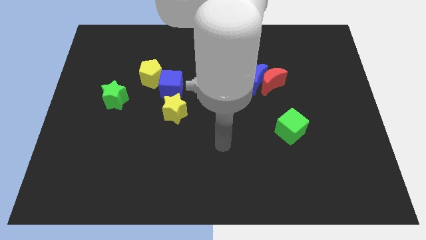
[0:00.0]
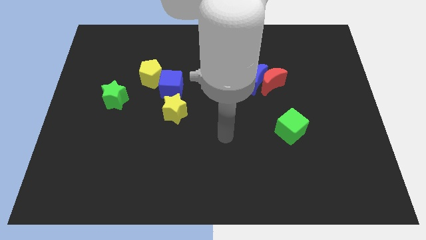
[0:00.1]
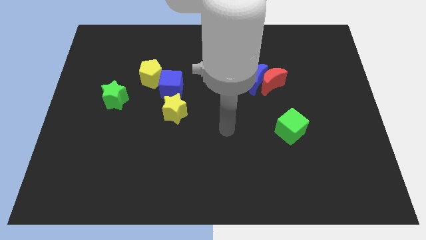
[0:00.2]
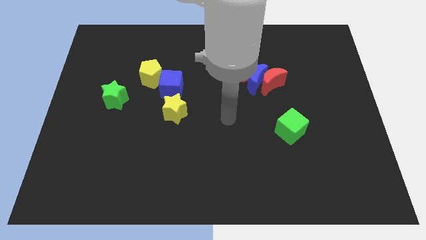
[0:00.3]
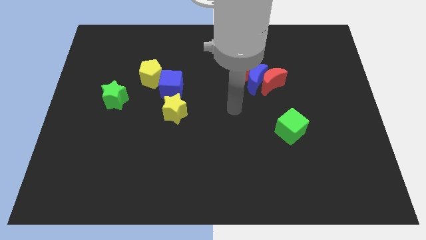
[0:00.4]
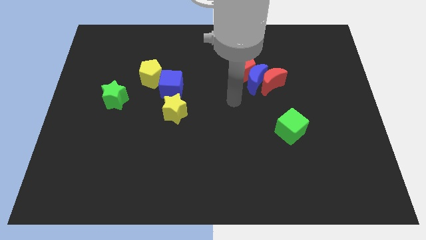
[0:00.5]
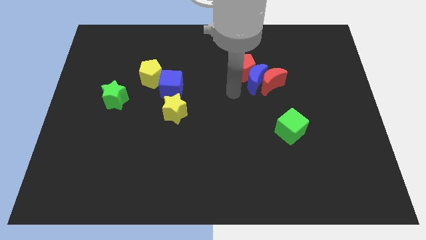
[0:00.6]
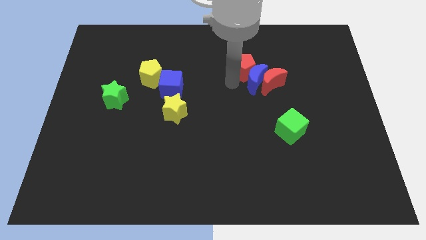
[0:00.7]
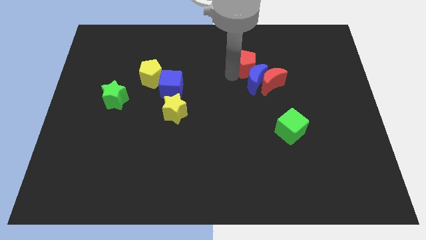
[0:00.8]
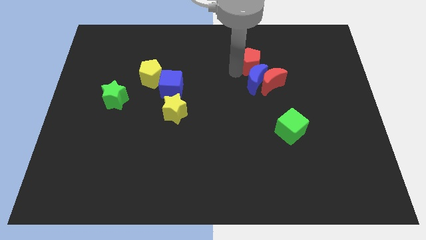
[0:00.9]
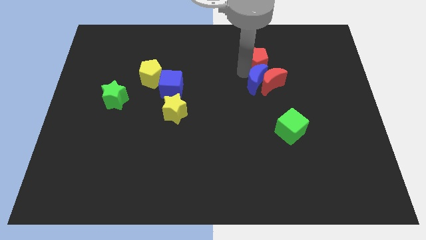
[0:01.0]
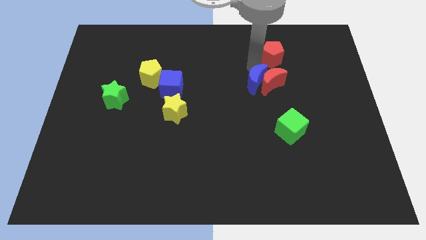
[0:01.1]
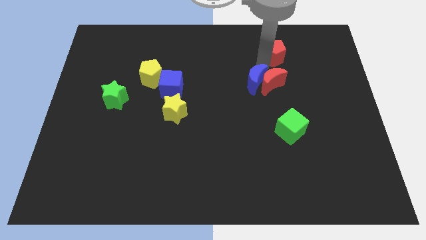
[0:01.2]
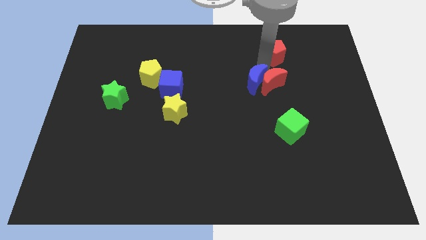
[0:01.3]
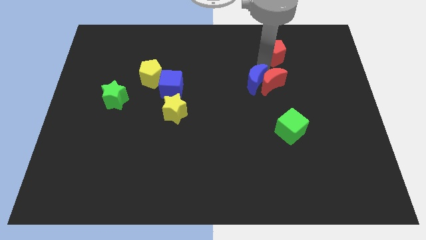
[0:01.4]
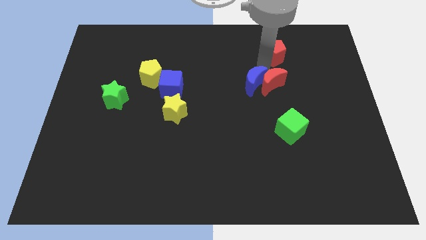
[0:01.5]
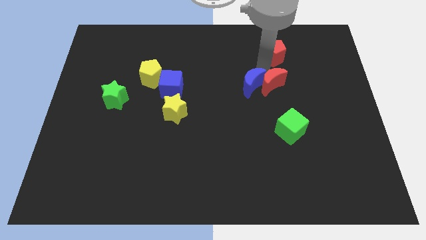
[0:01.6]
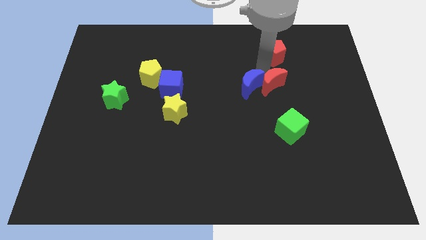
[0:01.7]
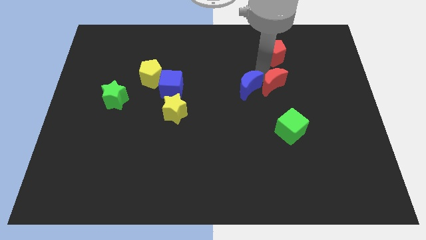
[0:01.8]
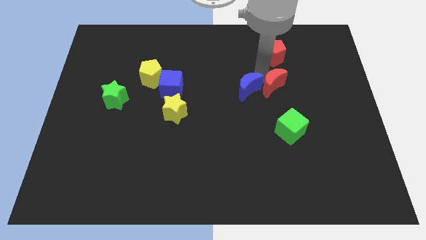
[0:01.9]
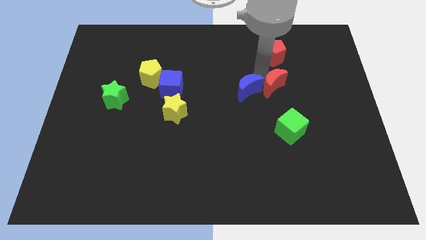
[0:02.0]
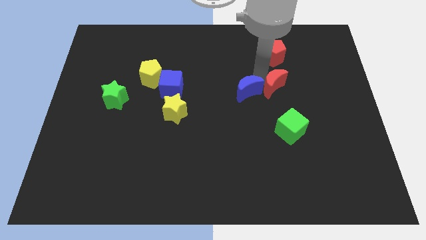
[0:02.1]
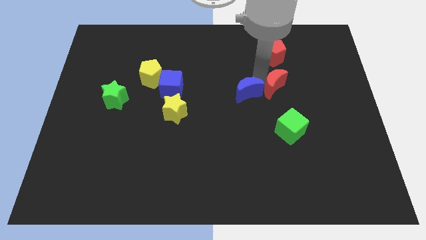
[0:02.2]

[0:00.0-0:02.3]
pull the blue moon apart from the red moon and red pentagon

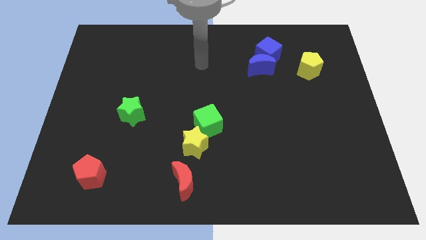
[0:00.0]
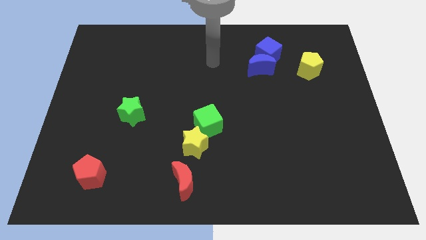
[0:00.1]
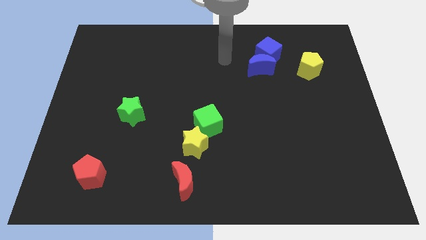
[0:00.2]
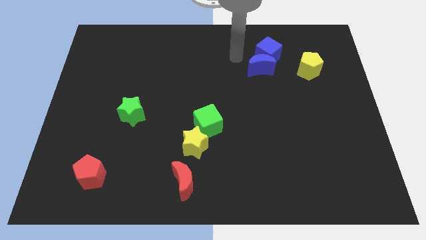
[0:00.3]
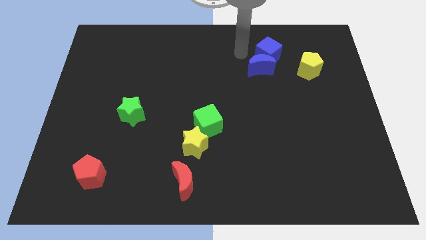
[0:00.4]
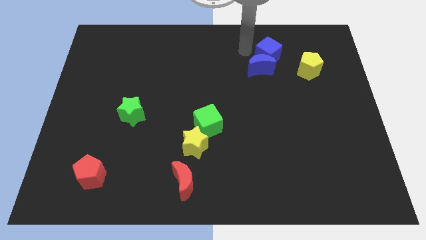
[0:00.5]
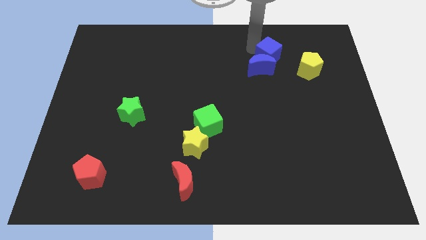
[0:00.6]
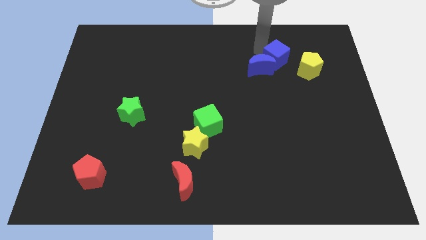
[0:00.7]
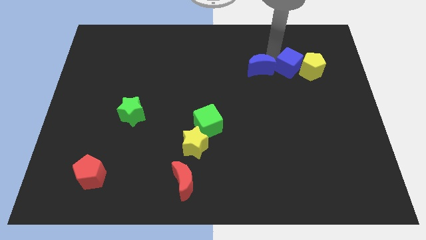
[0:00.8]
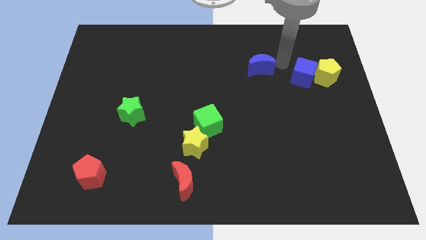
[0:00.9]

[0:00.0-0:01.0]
move the blue moon away from the blue cube

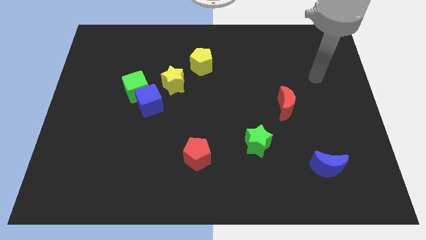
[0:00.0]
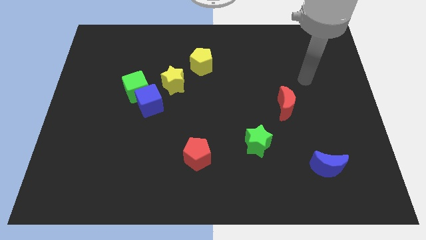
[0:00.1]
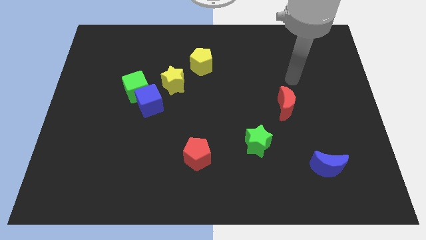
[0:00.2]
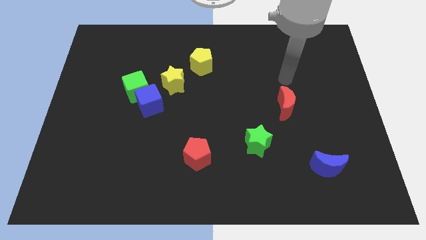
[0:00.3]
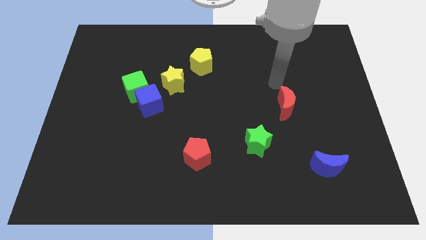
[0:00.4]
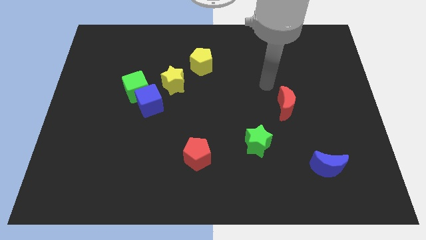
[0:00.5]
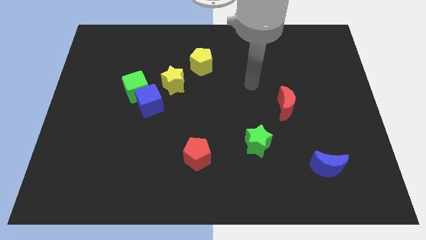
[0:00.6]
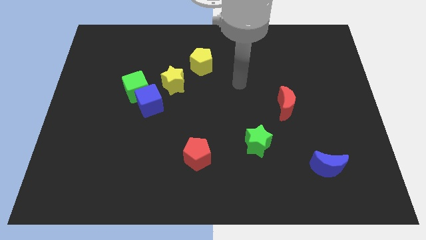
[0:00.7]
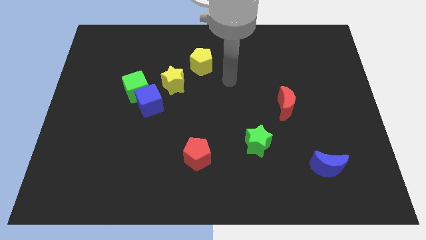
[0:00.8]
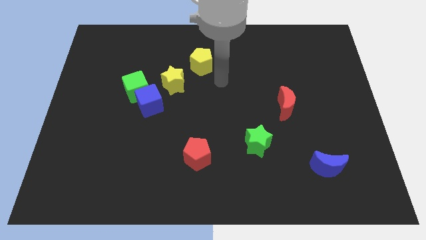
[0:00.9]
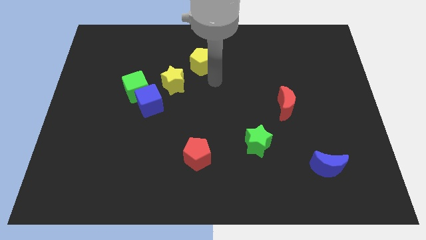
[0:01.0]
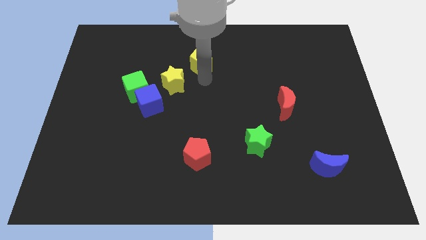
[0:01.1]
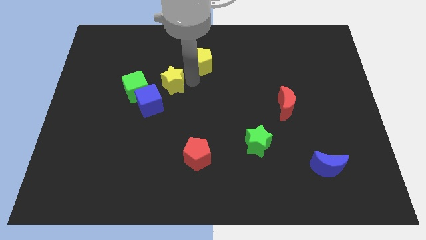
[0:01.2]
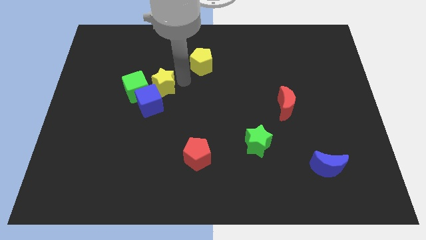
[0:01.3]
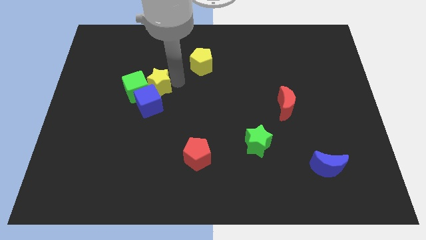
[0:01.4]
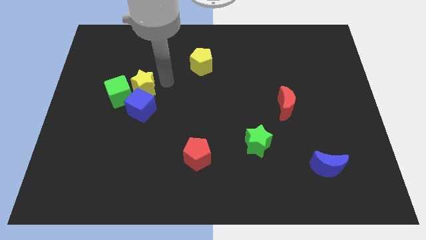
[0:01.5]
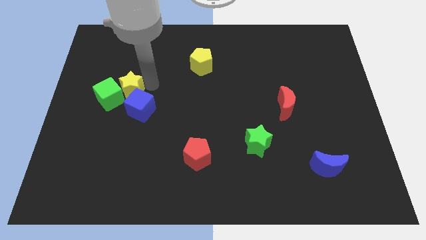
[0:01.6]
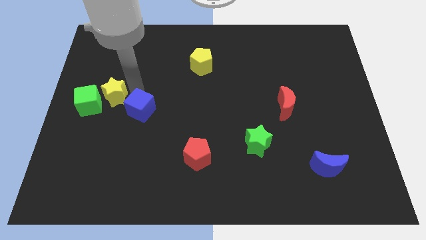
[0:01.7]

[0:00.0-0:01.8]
pull the blue cube apart from the green cube and yellow star

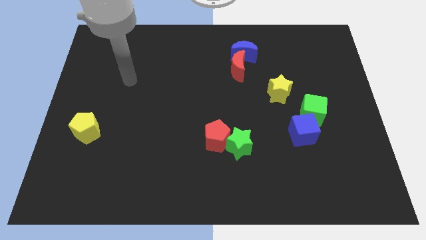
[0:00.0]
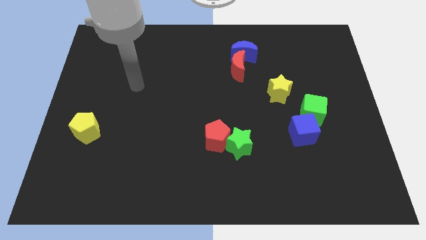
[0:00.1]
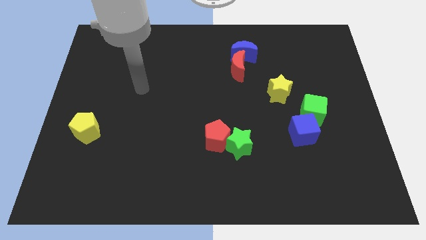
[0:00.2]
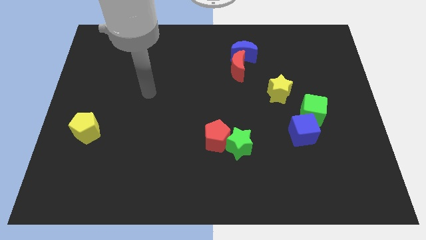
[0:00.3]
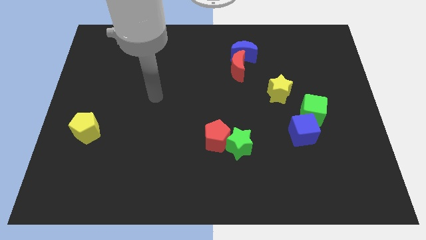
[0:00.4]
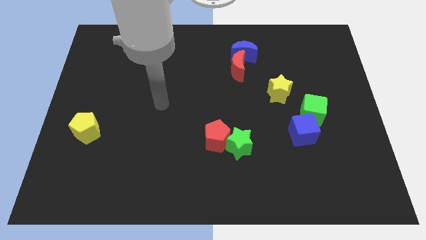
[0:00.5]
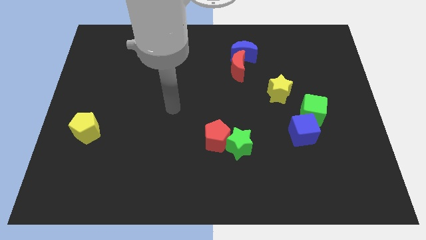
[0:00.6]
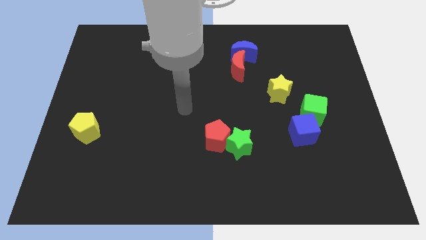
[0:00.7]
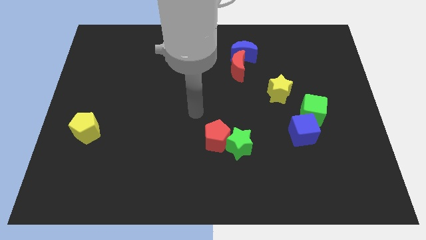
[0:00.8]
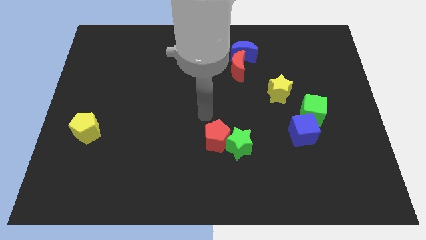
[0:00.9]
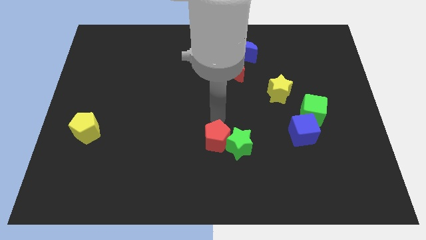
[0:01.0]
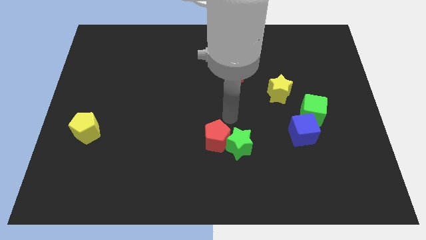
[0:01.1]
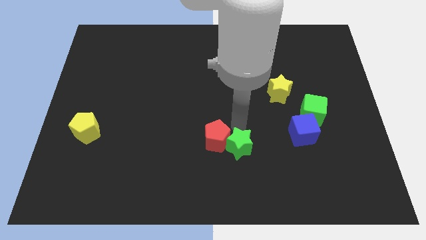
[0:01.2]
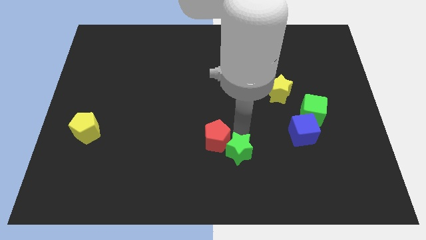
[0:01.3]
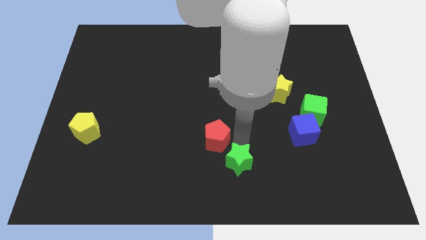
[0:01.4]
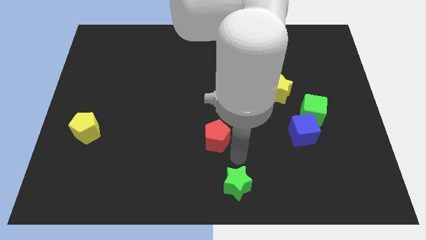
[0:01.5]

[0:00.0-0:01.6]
separate the red pentagon from the green star

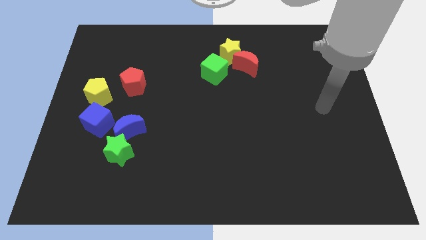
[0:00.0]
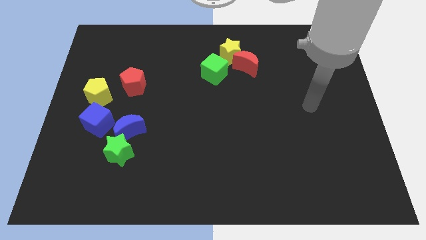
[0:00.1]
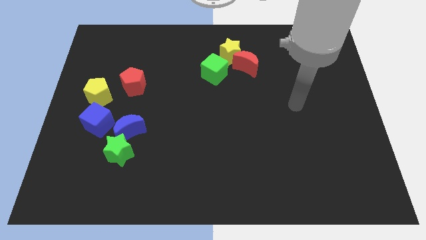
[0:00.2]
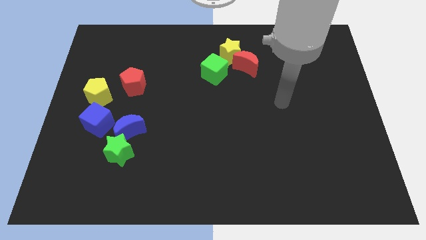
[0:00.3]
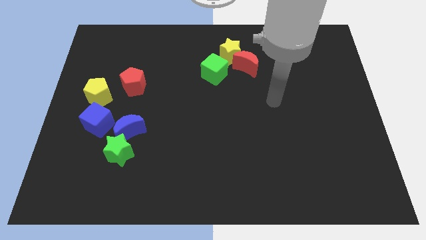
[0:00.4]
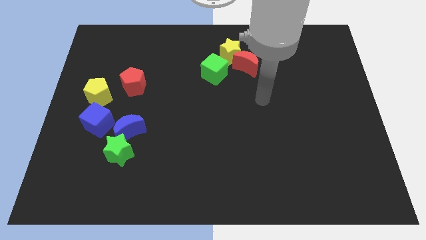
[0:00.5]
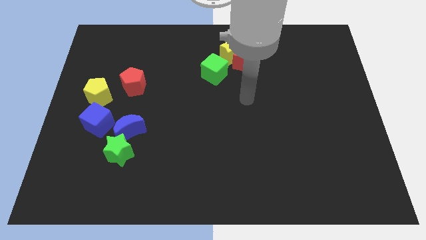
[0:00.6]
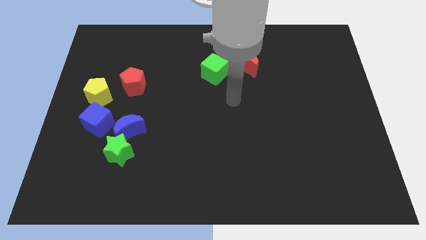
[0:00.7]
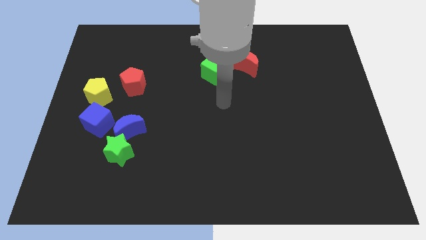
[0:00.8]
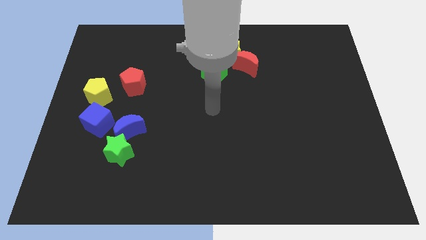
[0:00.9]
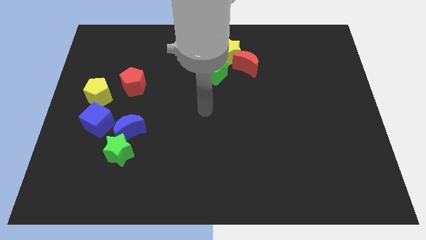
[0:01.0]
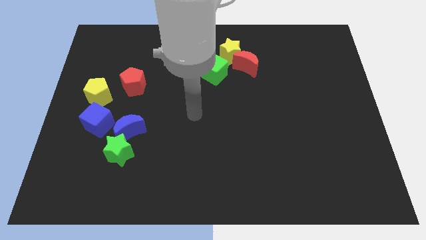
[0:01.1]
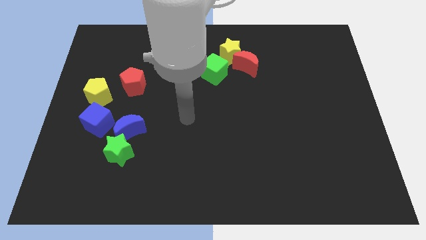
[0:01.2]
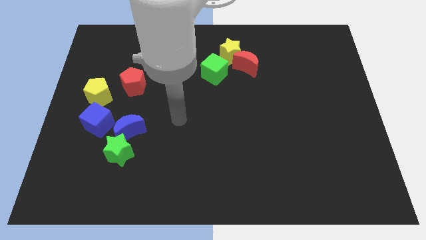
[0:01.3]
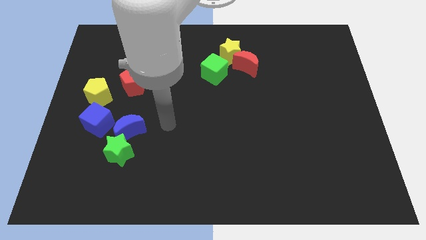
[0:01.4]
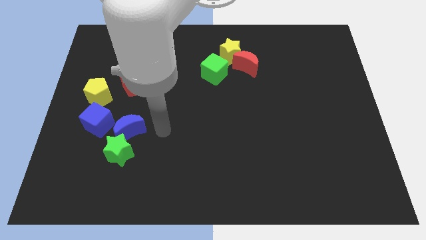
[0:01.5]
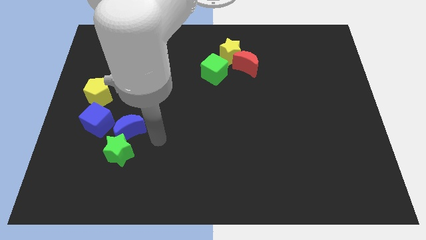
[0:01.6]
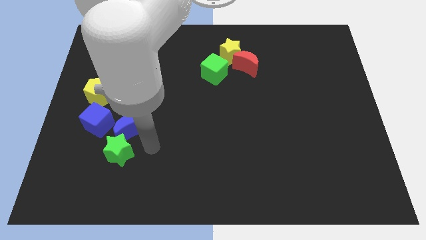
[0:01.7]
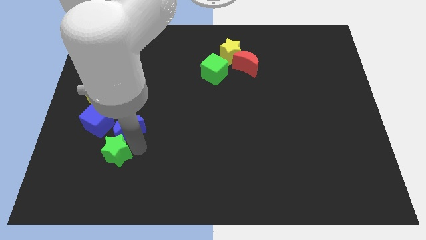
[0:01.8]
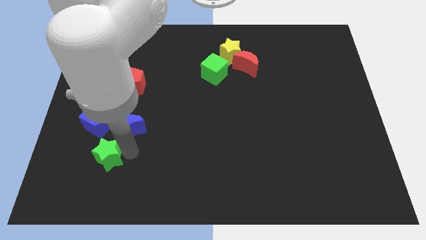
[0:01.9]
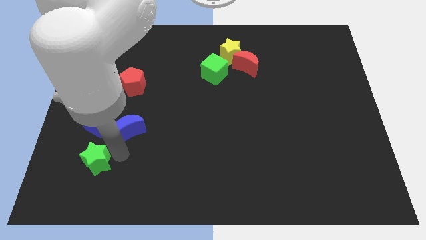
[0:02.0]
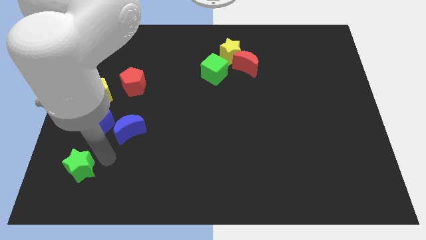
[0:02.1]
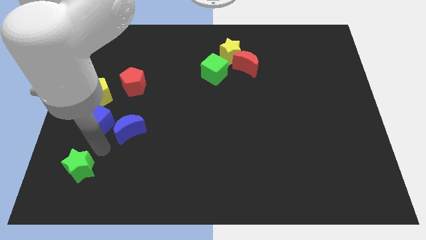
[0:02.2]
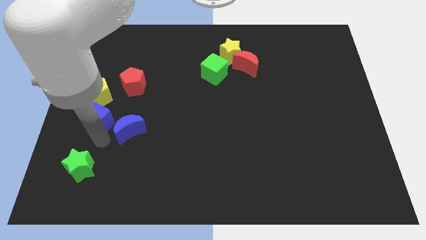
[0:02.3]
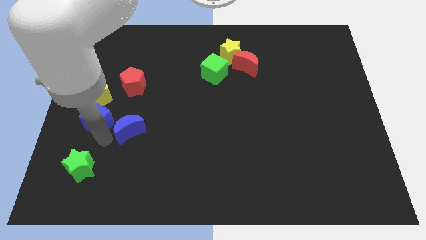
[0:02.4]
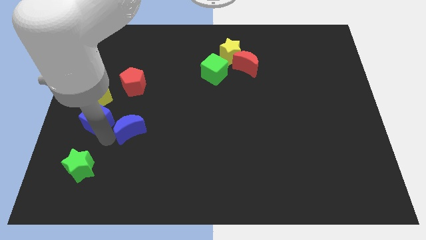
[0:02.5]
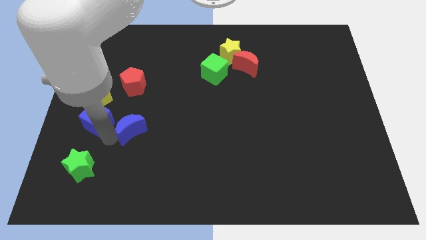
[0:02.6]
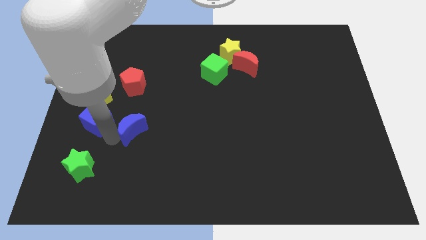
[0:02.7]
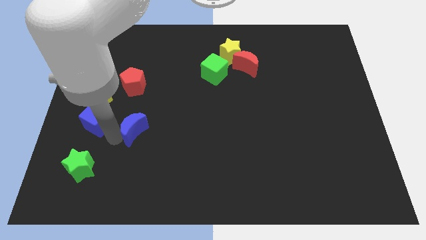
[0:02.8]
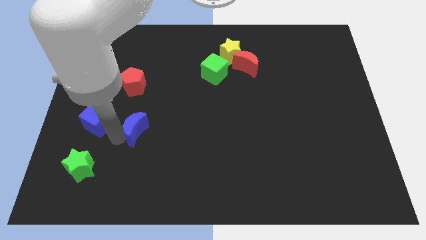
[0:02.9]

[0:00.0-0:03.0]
move the blue moon away from the green star and blue cube
